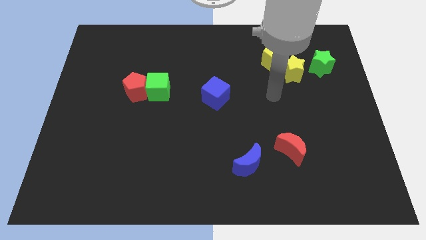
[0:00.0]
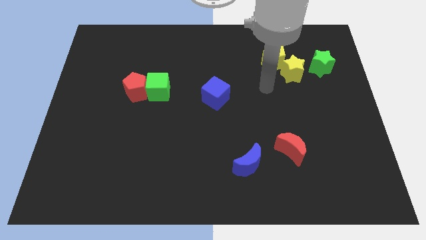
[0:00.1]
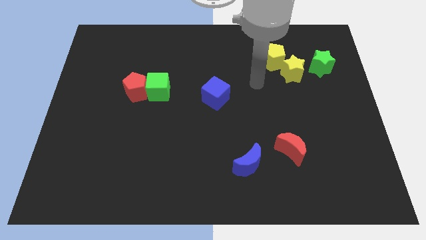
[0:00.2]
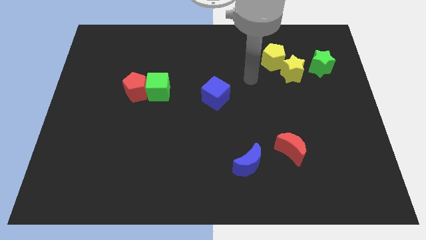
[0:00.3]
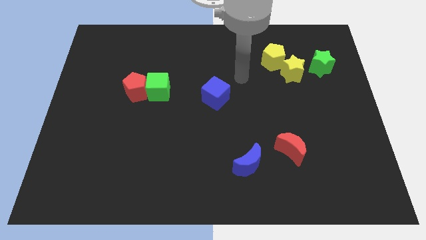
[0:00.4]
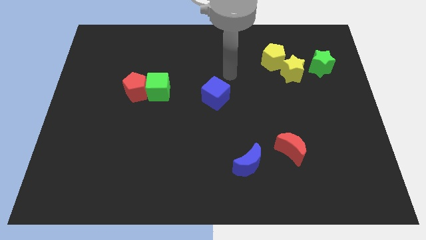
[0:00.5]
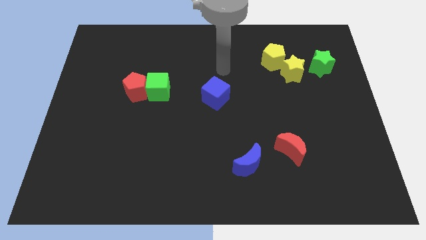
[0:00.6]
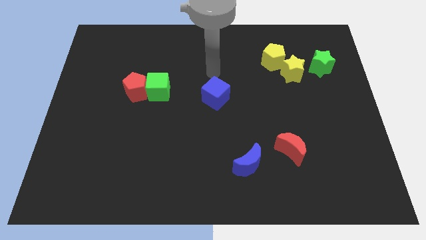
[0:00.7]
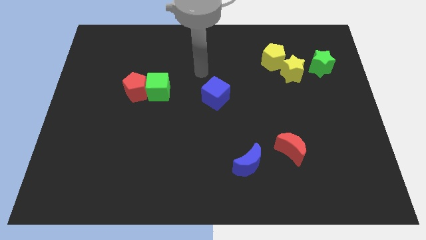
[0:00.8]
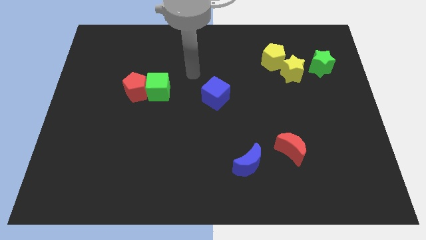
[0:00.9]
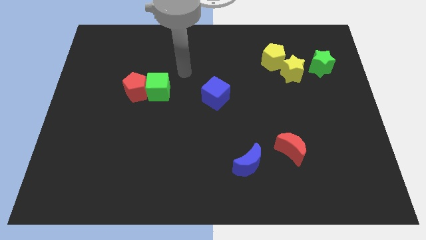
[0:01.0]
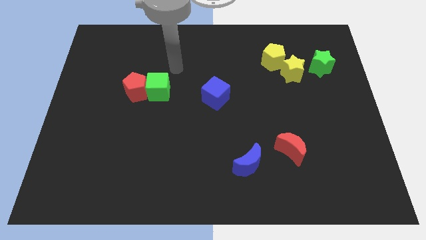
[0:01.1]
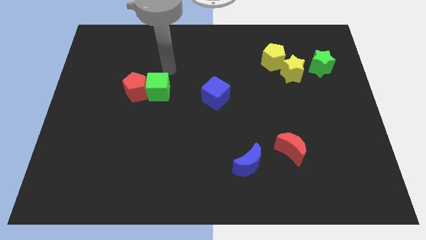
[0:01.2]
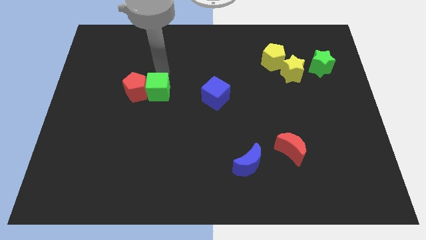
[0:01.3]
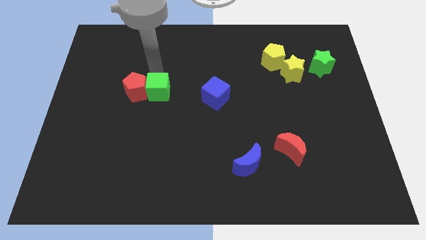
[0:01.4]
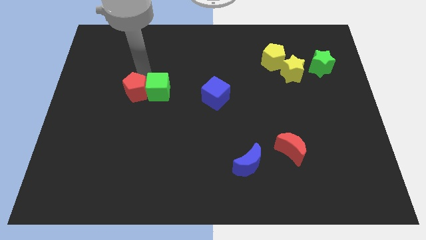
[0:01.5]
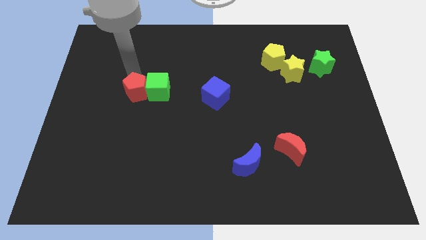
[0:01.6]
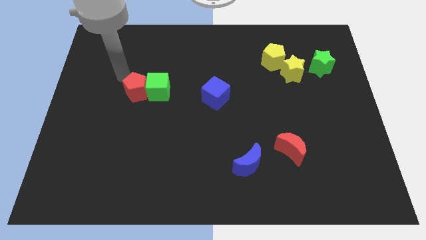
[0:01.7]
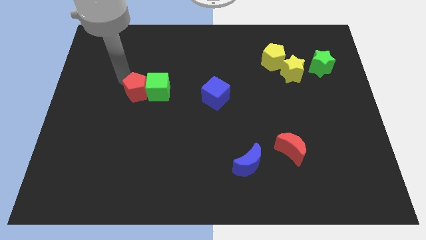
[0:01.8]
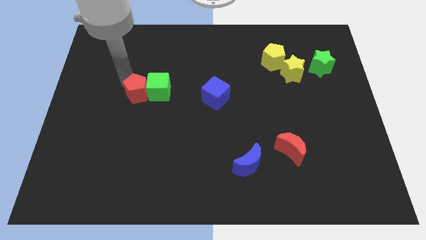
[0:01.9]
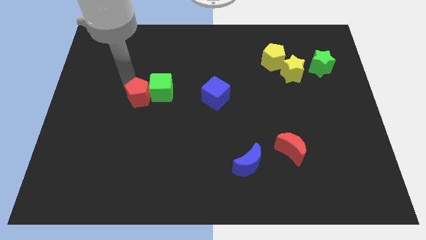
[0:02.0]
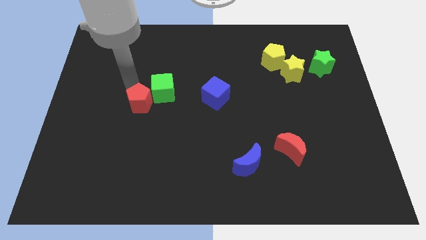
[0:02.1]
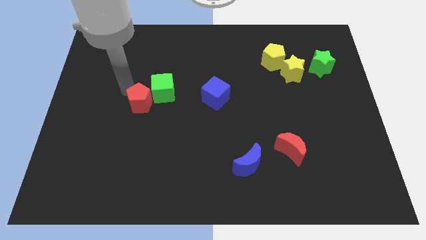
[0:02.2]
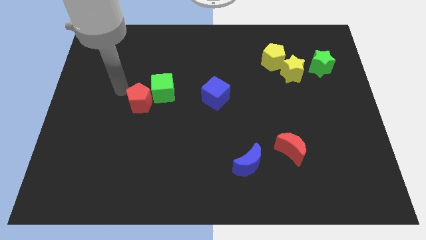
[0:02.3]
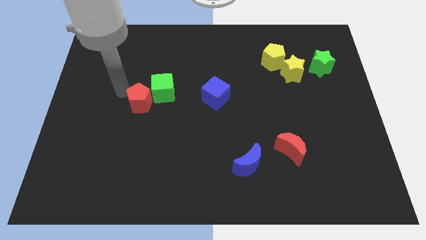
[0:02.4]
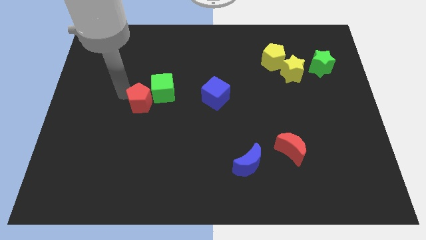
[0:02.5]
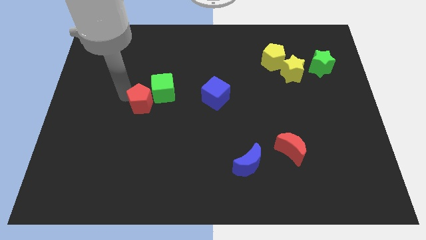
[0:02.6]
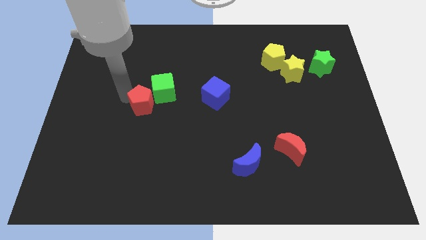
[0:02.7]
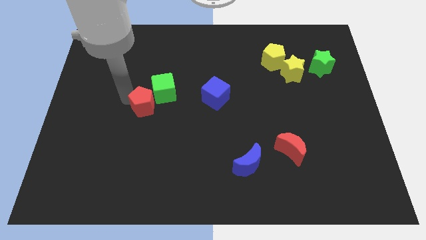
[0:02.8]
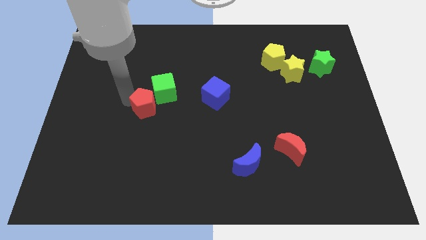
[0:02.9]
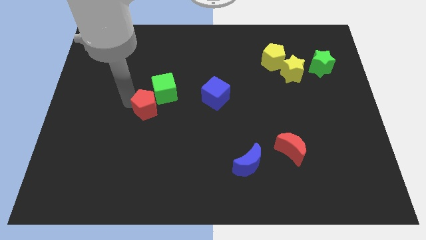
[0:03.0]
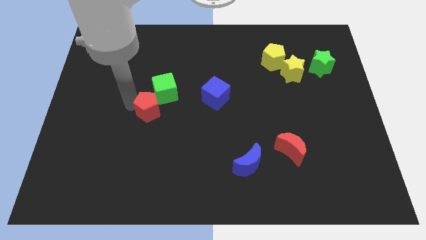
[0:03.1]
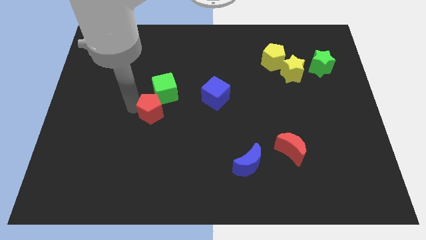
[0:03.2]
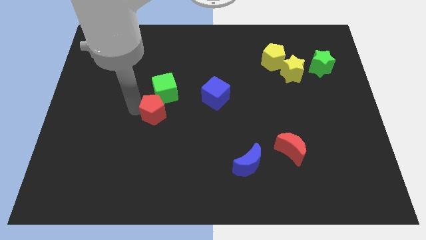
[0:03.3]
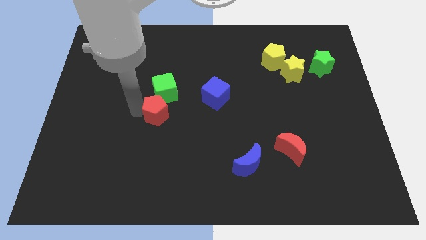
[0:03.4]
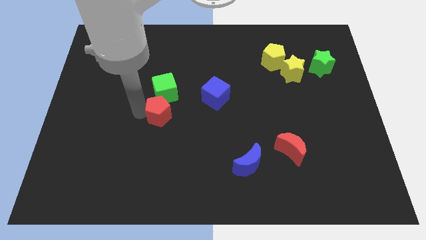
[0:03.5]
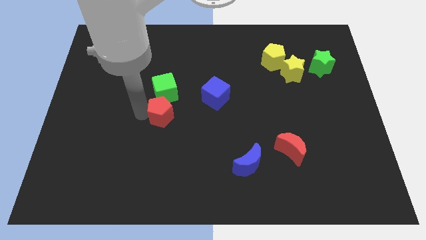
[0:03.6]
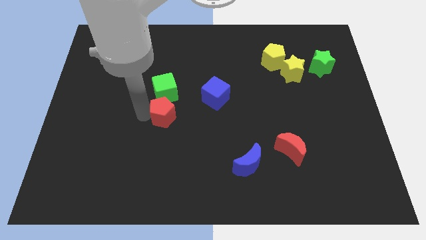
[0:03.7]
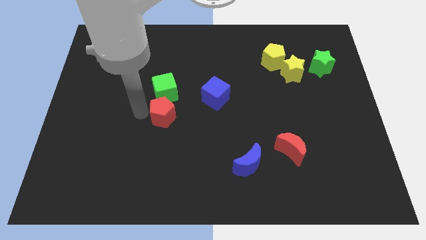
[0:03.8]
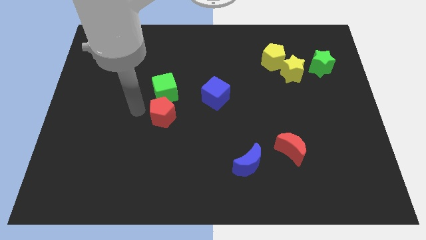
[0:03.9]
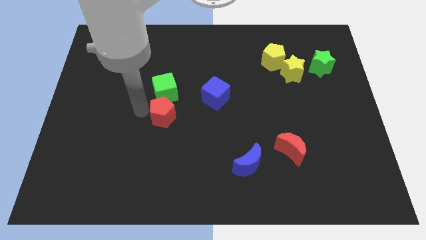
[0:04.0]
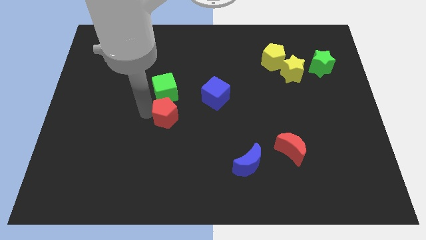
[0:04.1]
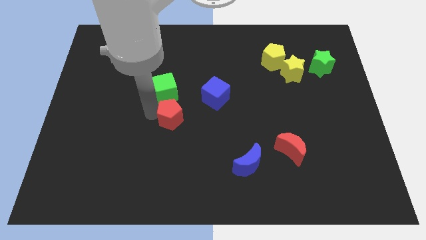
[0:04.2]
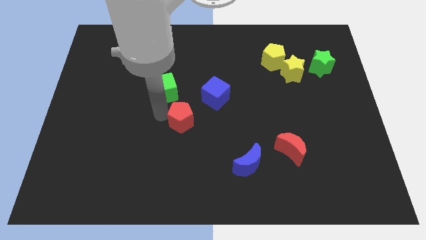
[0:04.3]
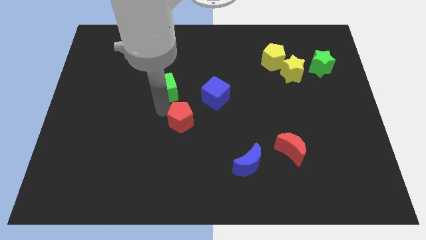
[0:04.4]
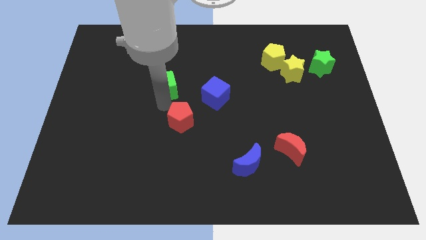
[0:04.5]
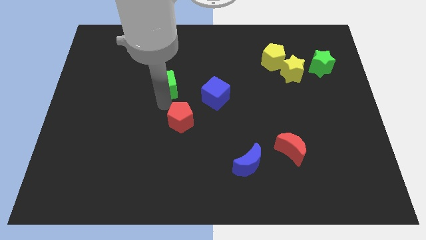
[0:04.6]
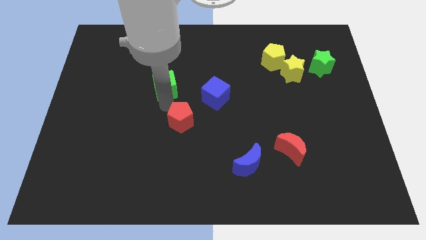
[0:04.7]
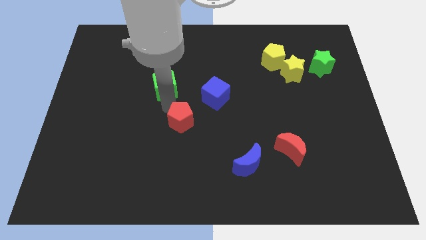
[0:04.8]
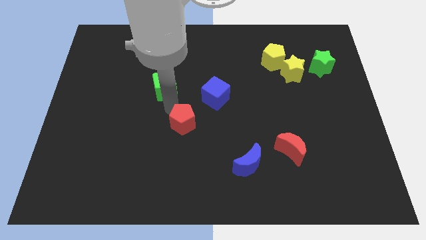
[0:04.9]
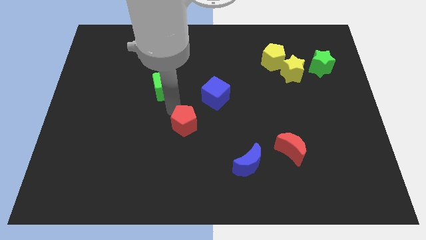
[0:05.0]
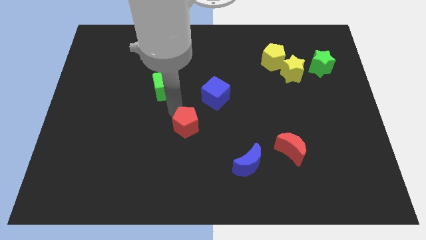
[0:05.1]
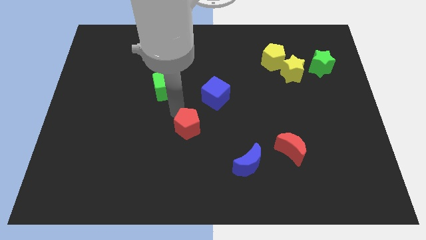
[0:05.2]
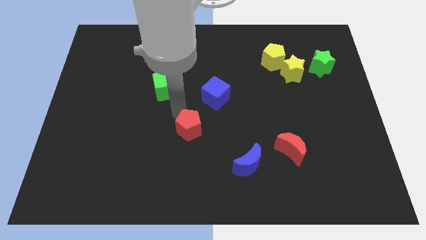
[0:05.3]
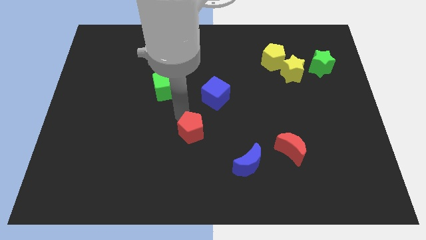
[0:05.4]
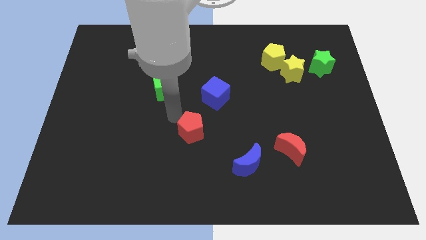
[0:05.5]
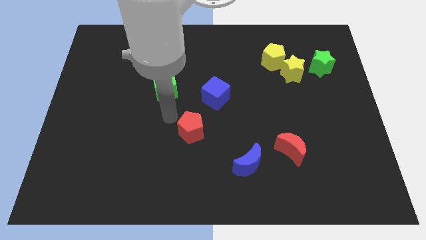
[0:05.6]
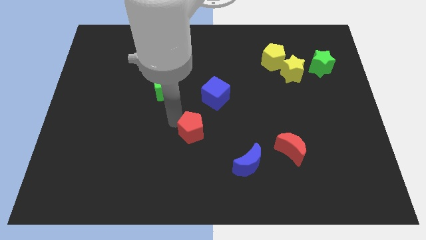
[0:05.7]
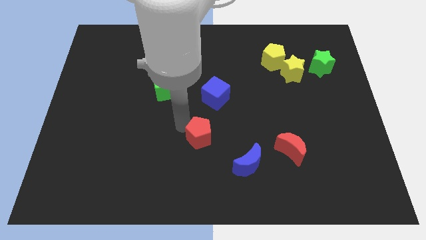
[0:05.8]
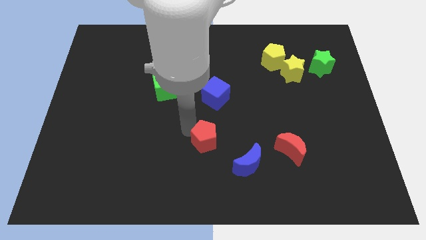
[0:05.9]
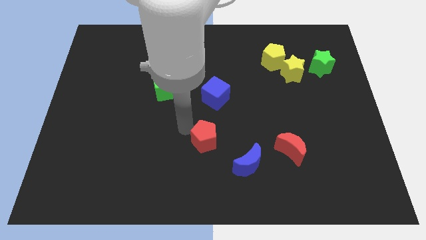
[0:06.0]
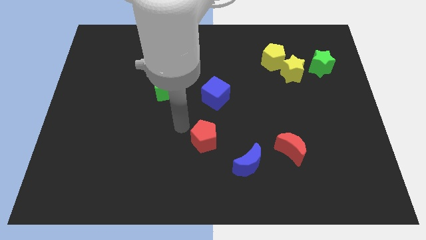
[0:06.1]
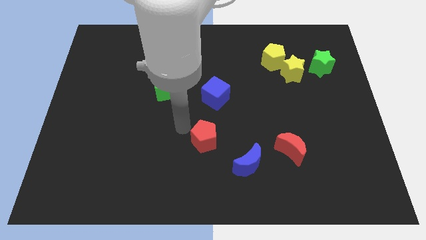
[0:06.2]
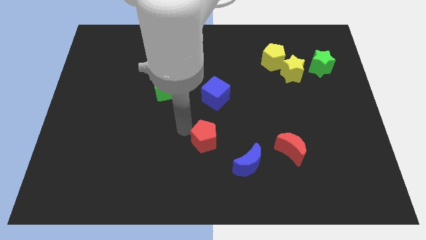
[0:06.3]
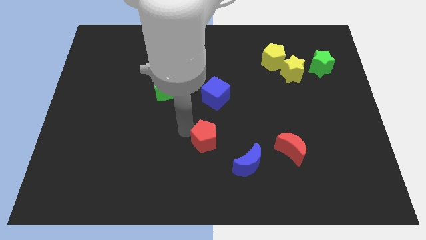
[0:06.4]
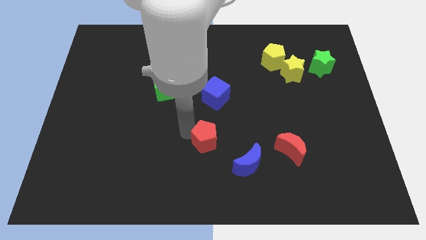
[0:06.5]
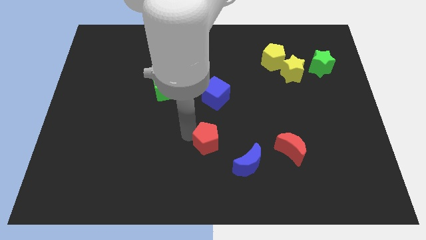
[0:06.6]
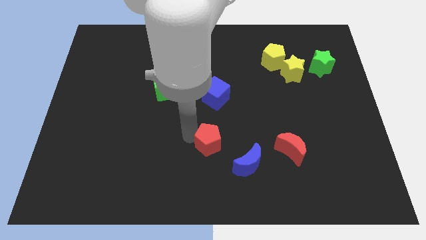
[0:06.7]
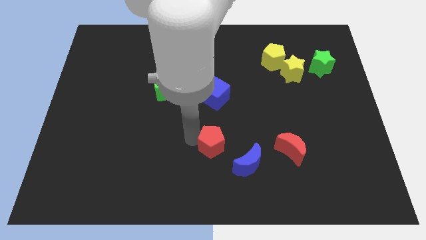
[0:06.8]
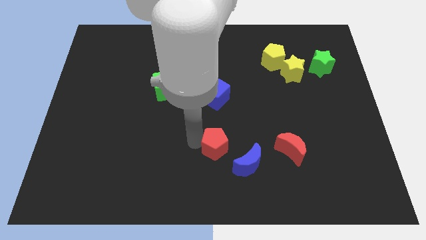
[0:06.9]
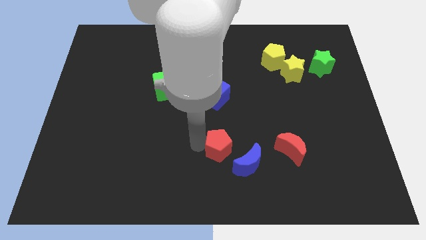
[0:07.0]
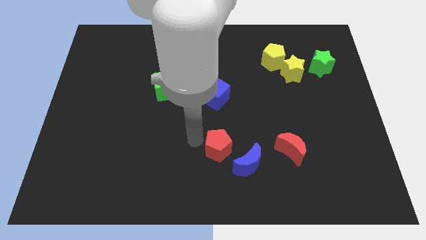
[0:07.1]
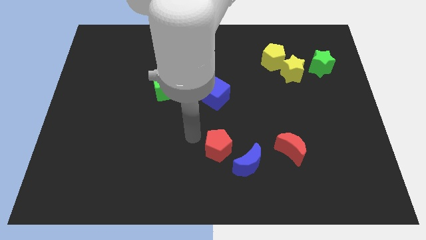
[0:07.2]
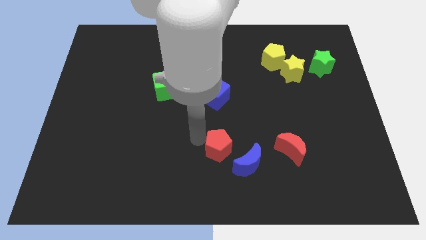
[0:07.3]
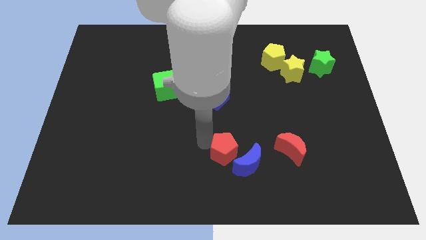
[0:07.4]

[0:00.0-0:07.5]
put the red pentagon next to the blue moon
